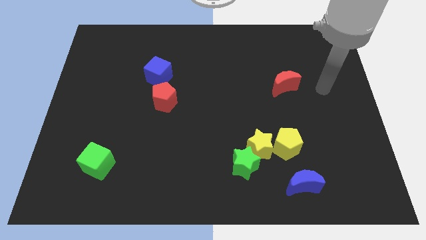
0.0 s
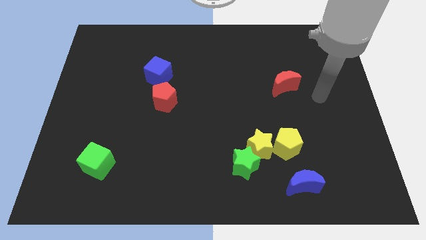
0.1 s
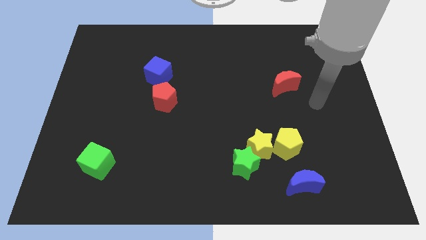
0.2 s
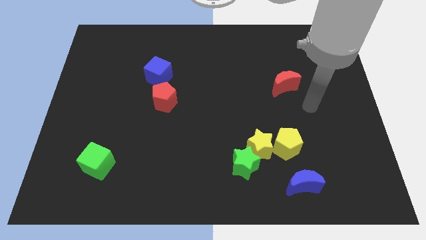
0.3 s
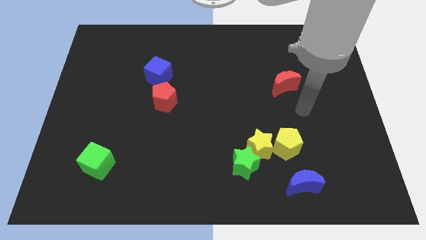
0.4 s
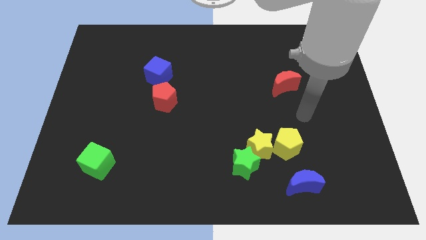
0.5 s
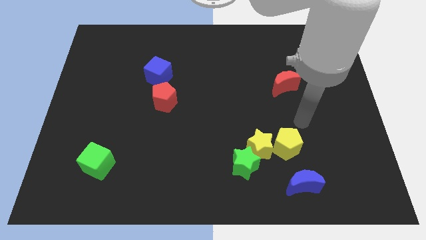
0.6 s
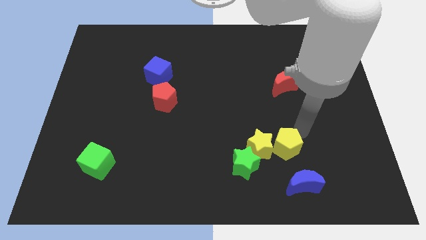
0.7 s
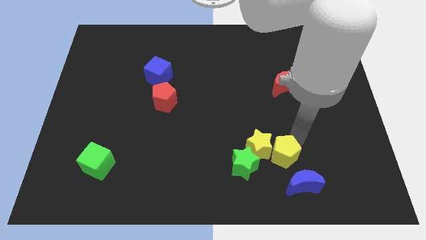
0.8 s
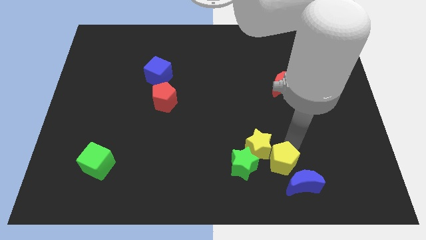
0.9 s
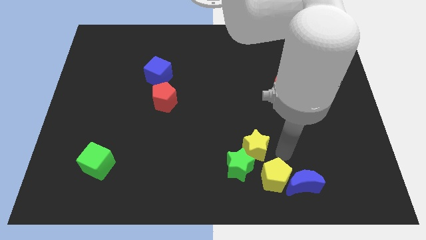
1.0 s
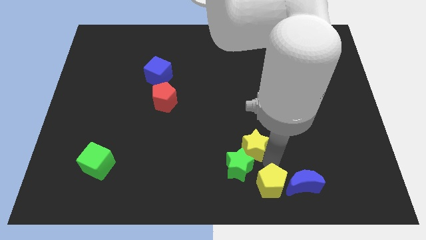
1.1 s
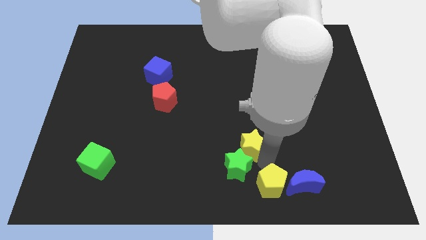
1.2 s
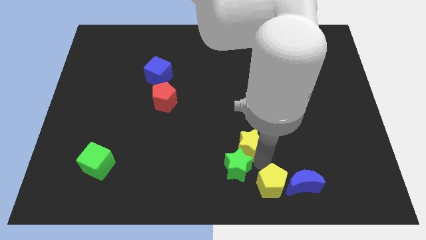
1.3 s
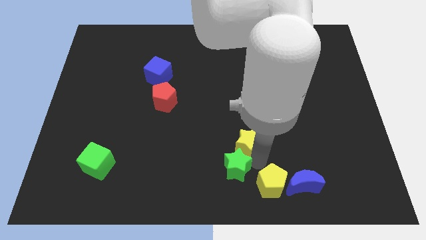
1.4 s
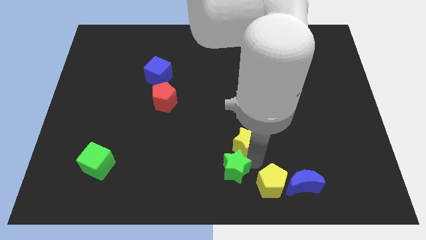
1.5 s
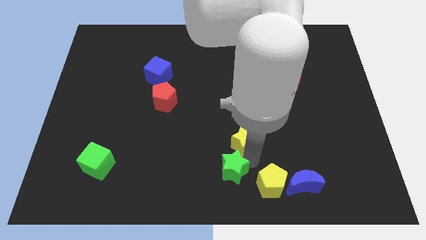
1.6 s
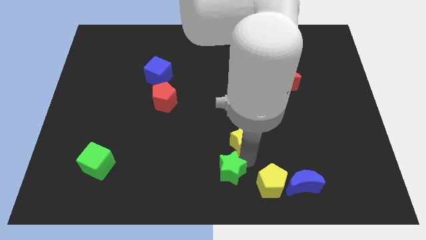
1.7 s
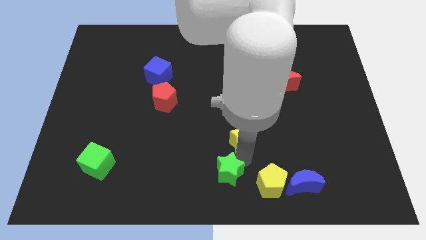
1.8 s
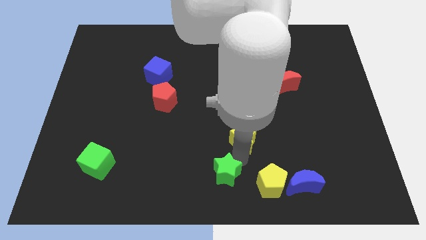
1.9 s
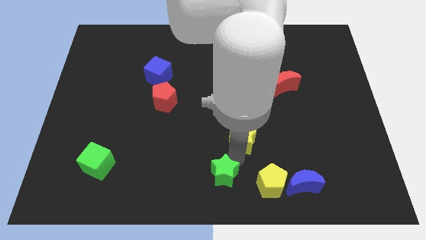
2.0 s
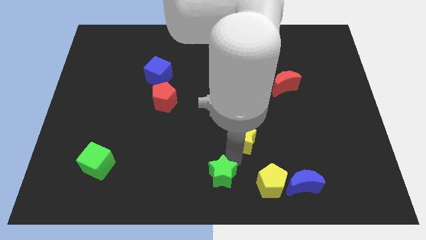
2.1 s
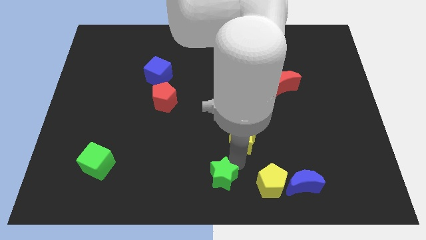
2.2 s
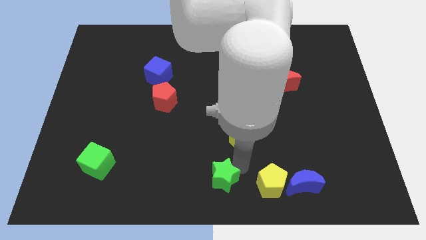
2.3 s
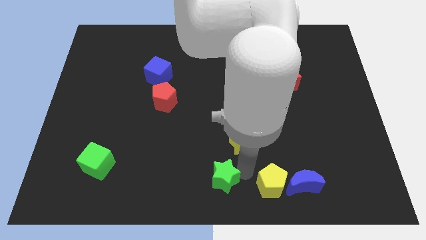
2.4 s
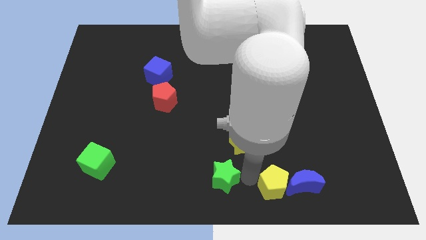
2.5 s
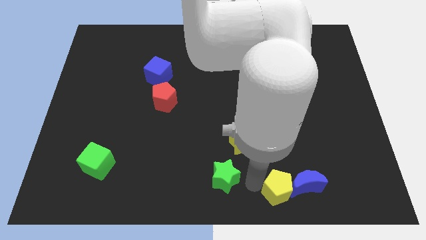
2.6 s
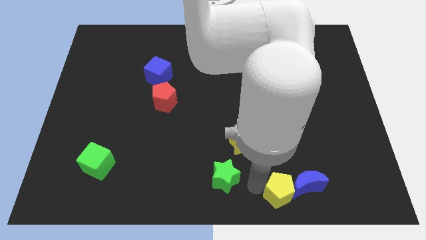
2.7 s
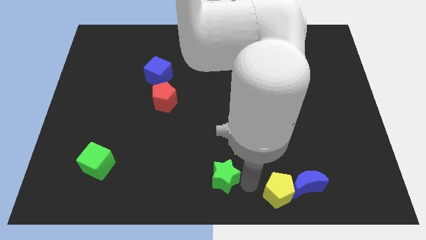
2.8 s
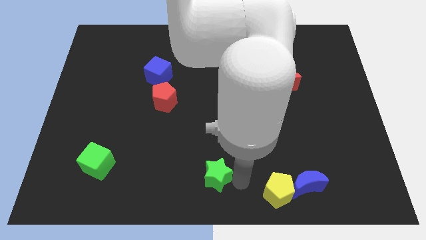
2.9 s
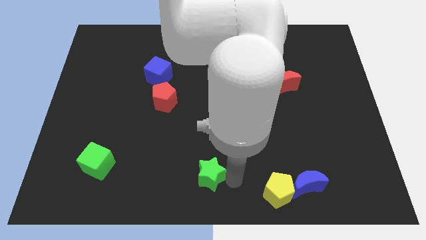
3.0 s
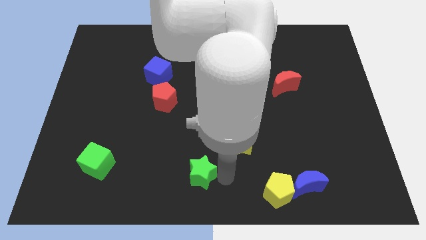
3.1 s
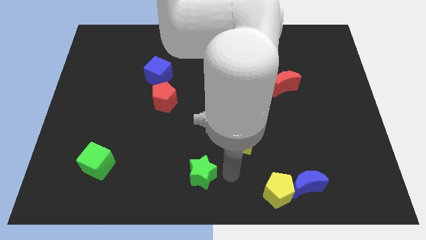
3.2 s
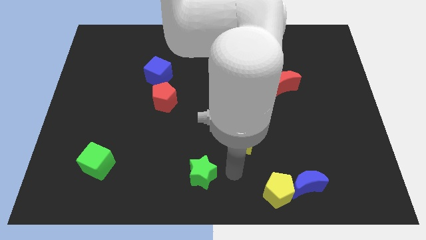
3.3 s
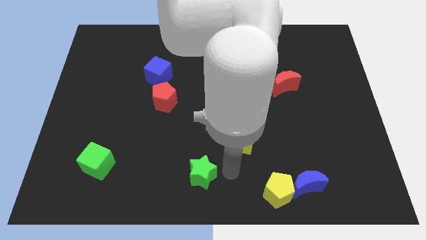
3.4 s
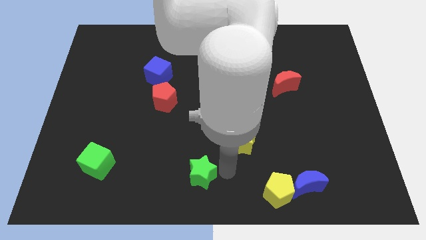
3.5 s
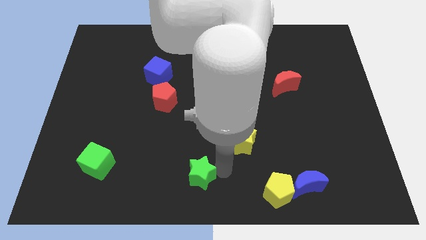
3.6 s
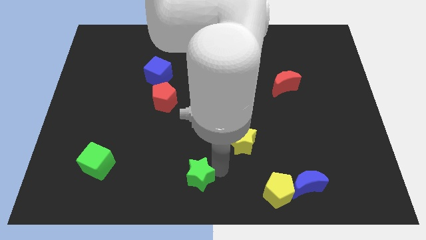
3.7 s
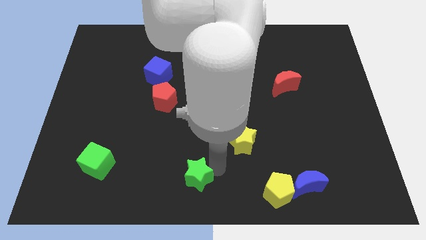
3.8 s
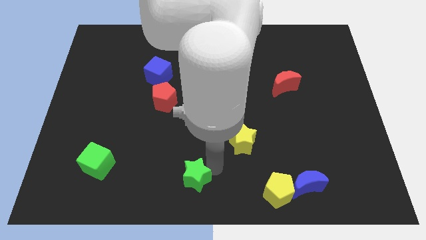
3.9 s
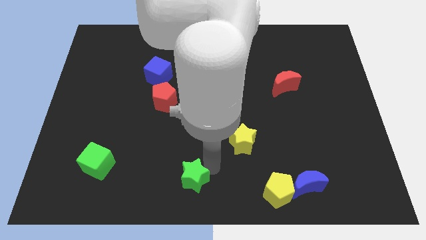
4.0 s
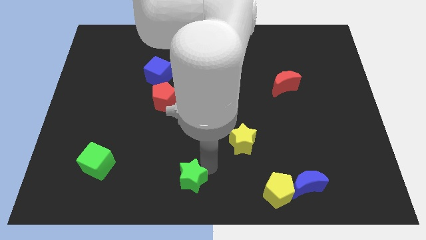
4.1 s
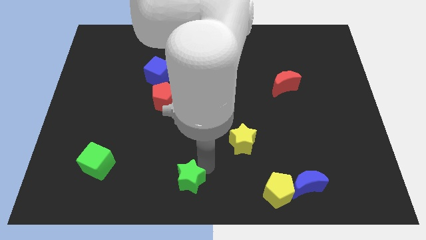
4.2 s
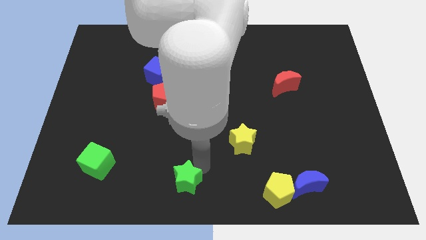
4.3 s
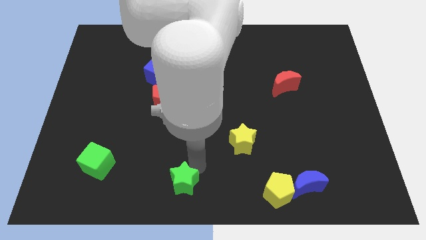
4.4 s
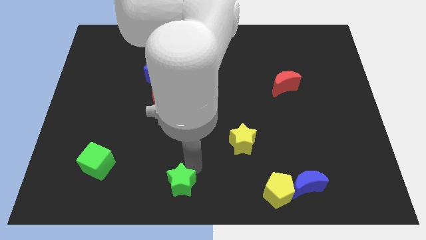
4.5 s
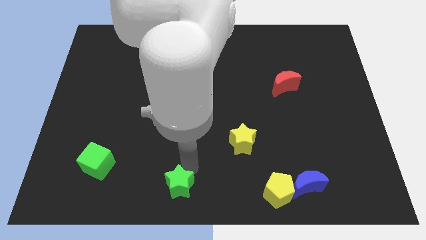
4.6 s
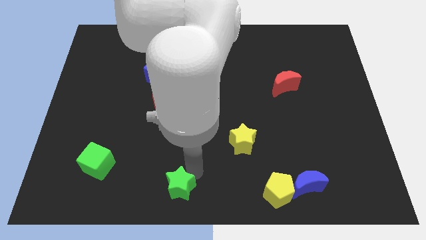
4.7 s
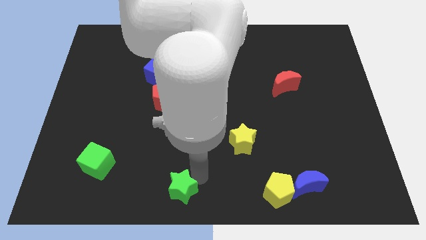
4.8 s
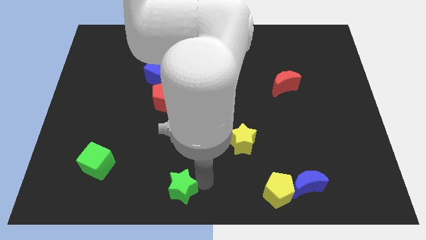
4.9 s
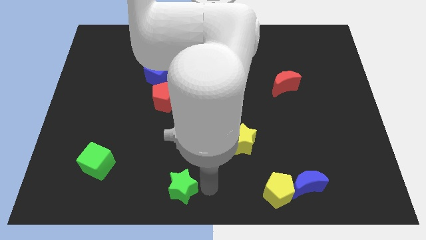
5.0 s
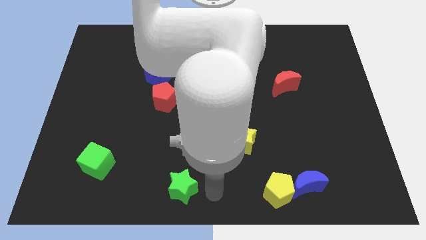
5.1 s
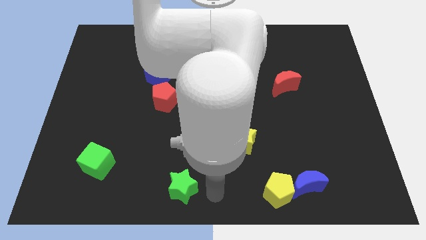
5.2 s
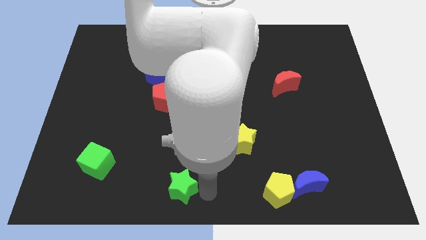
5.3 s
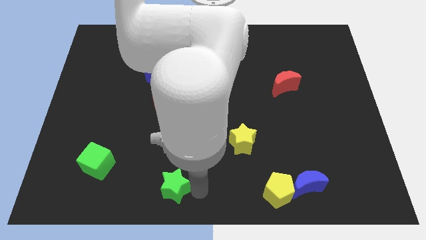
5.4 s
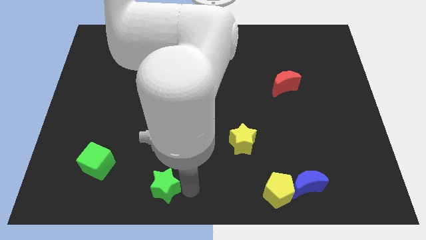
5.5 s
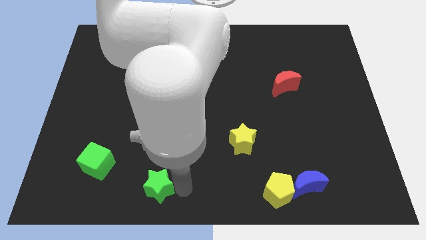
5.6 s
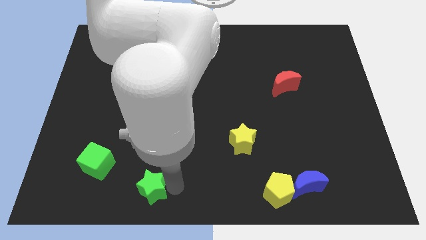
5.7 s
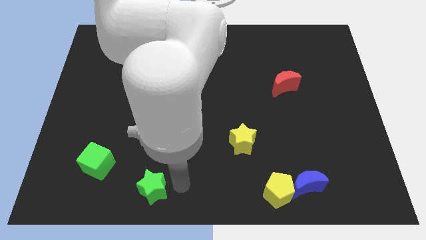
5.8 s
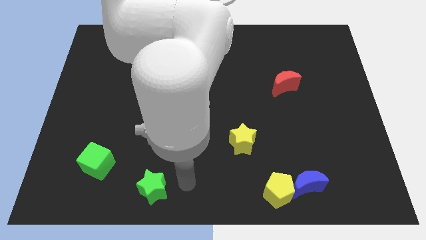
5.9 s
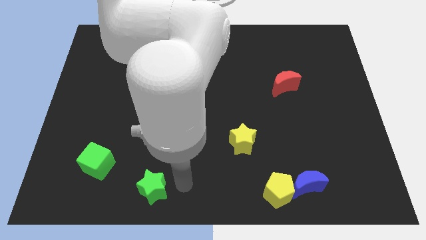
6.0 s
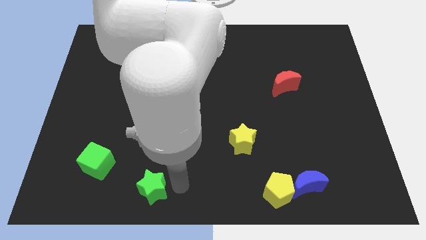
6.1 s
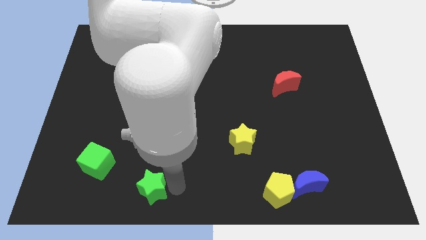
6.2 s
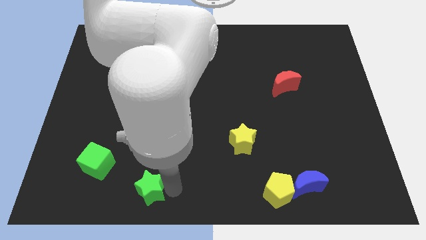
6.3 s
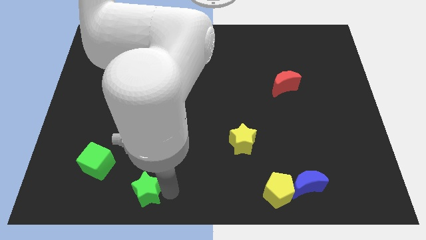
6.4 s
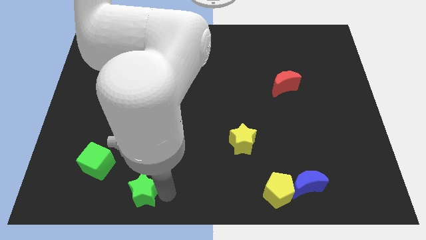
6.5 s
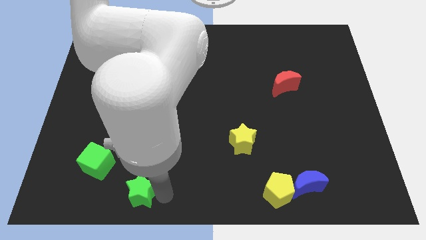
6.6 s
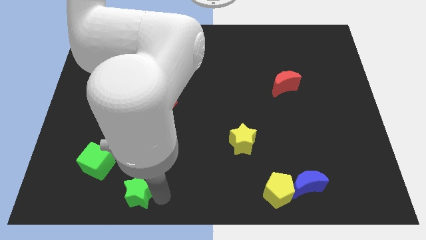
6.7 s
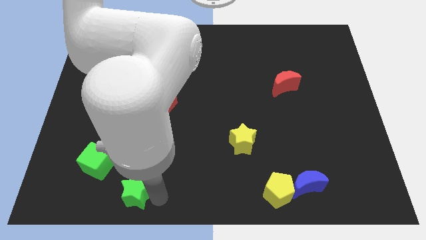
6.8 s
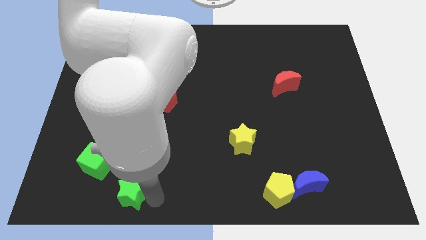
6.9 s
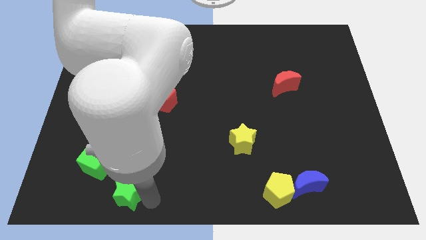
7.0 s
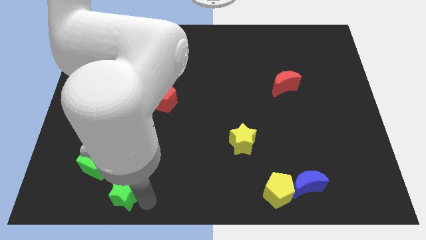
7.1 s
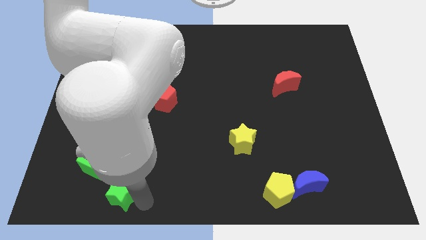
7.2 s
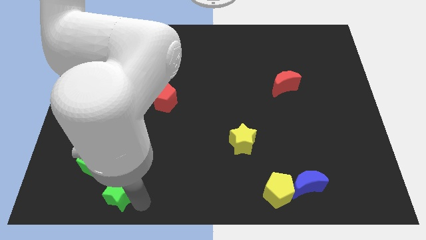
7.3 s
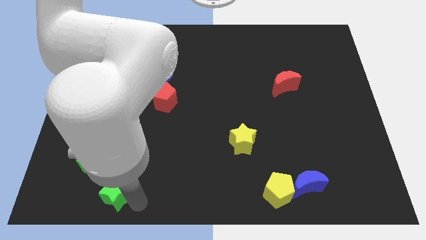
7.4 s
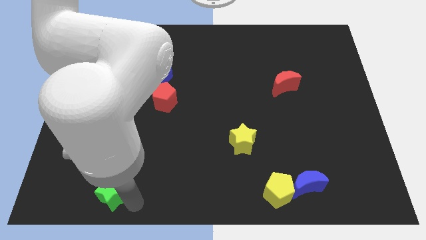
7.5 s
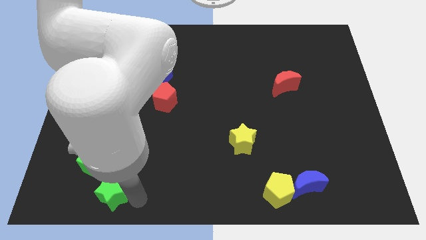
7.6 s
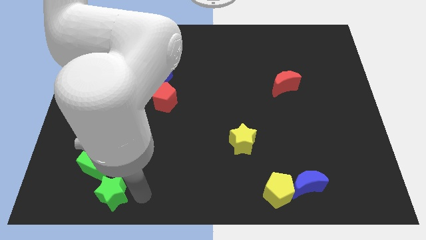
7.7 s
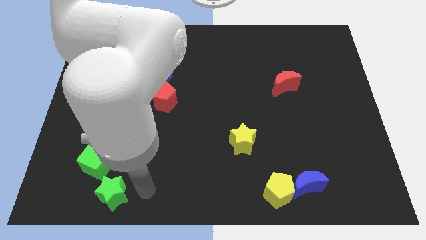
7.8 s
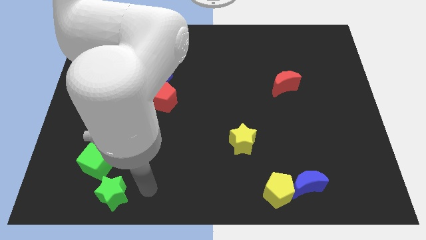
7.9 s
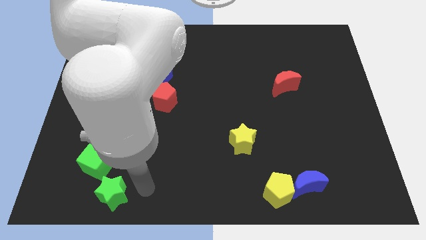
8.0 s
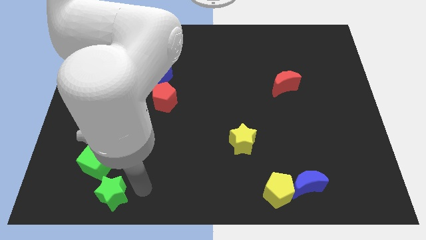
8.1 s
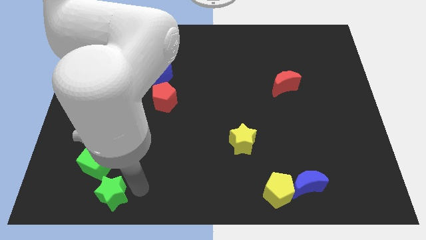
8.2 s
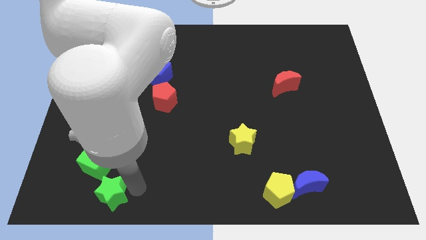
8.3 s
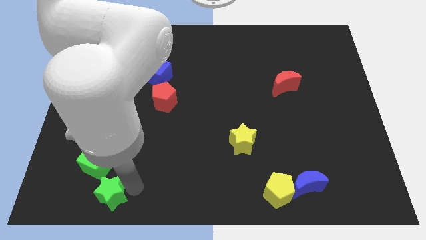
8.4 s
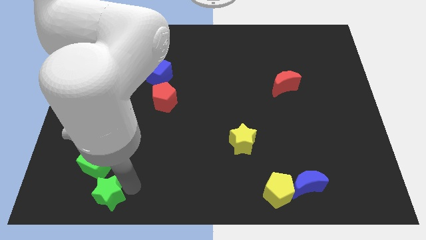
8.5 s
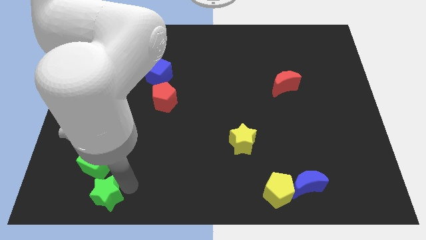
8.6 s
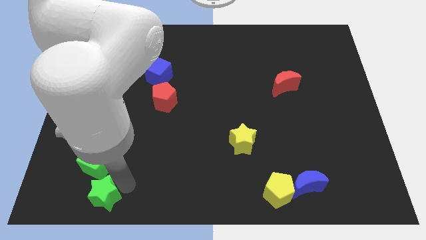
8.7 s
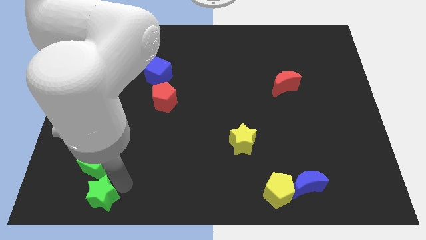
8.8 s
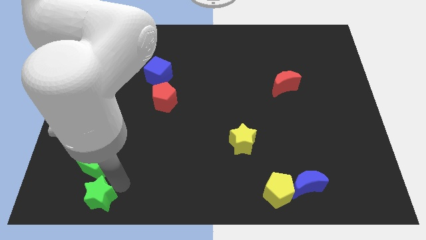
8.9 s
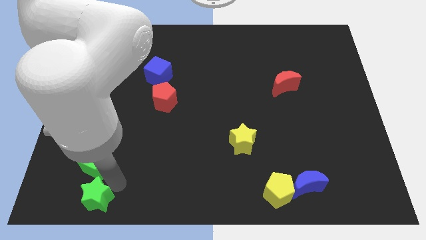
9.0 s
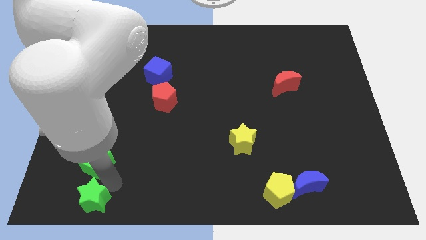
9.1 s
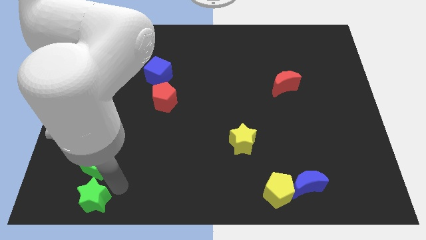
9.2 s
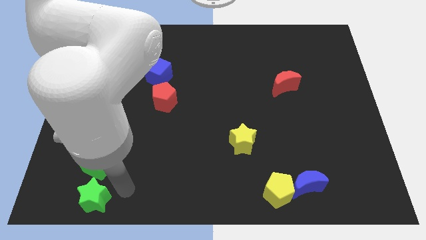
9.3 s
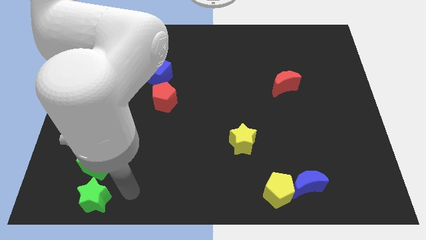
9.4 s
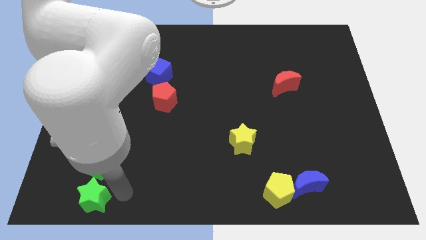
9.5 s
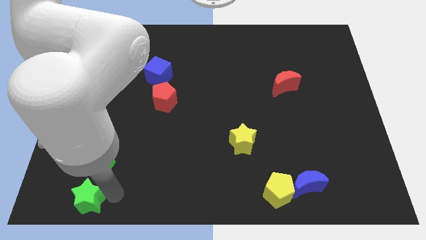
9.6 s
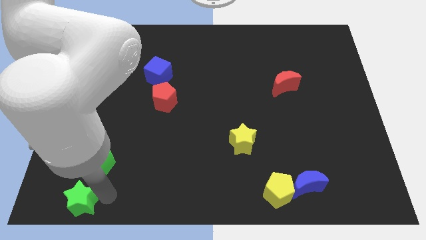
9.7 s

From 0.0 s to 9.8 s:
slide the green star to the lower left corner
